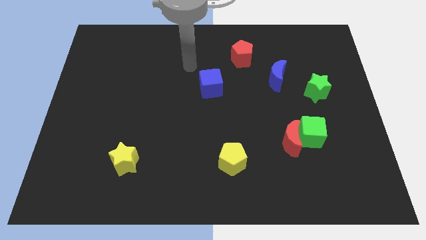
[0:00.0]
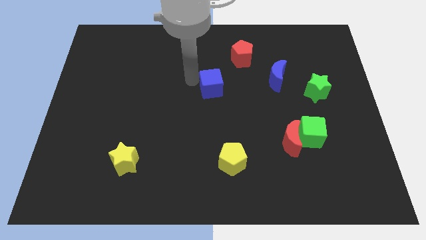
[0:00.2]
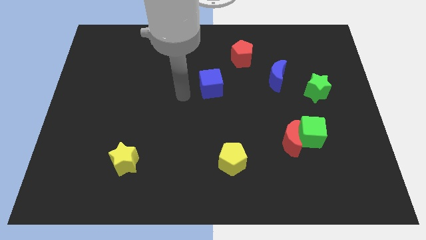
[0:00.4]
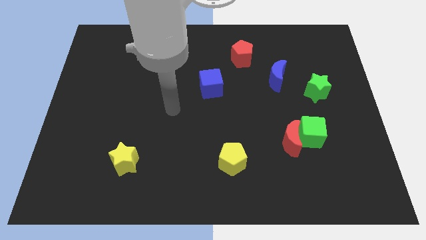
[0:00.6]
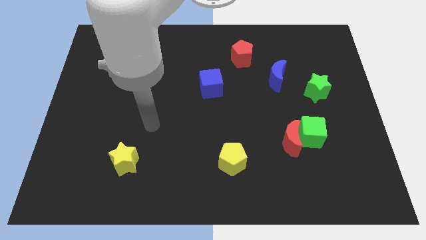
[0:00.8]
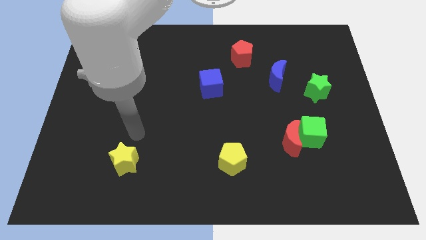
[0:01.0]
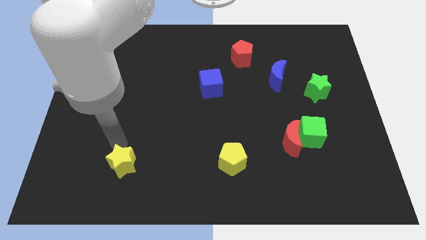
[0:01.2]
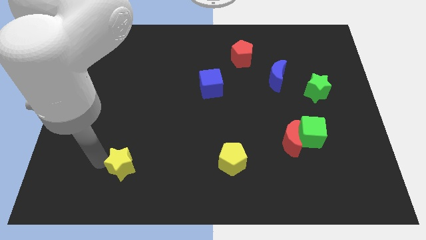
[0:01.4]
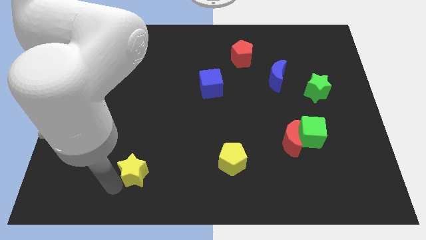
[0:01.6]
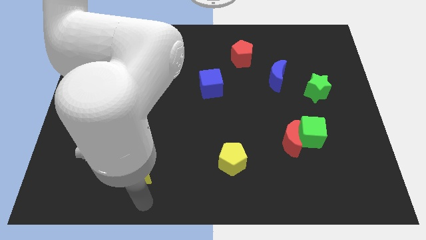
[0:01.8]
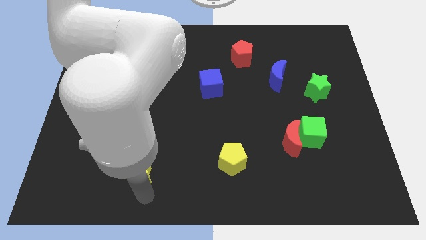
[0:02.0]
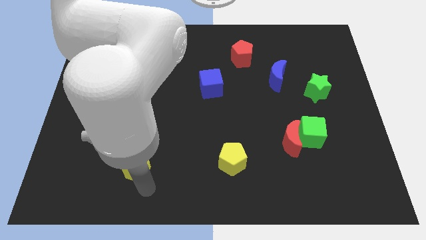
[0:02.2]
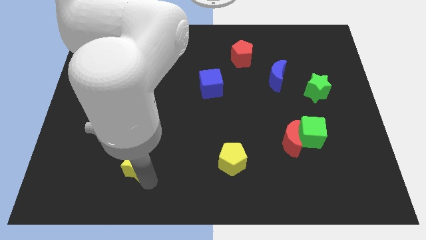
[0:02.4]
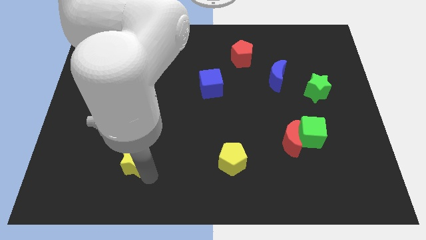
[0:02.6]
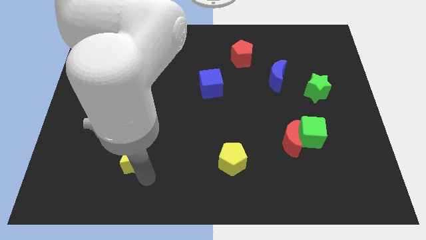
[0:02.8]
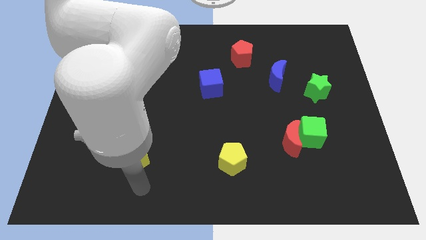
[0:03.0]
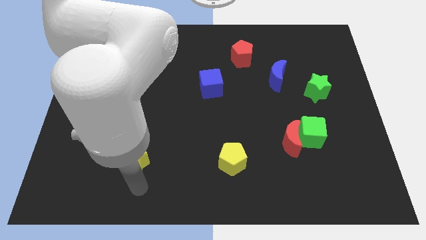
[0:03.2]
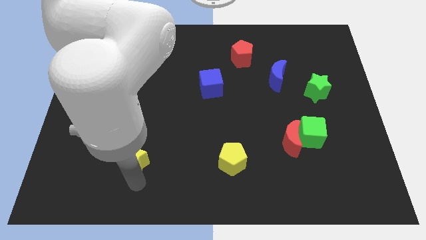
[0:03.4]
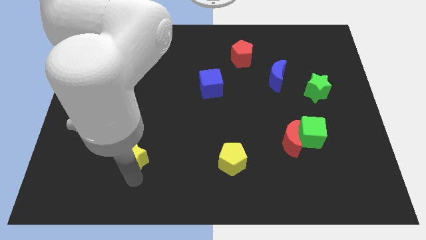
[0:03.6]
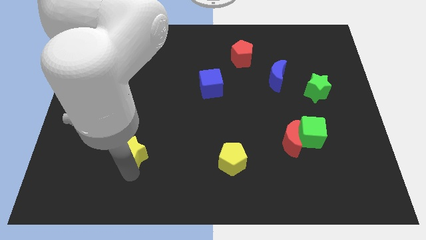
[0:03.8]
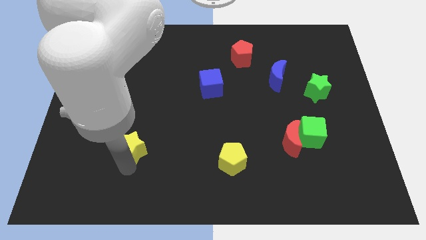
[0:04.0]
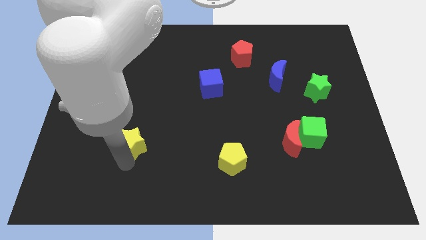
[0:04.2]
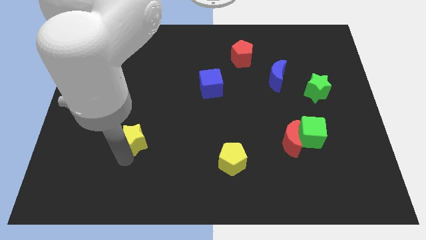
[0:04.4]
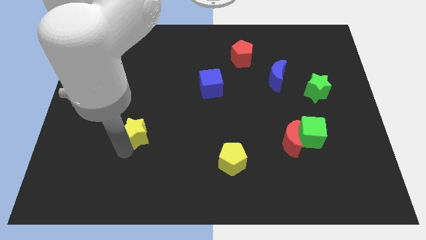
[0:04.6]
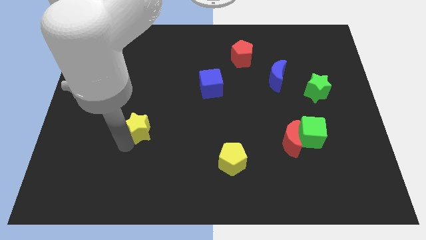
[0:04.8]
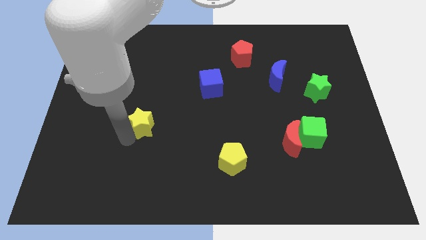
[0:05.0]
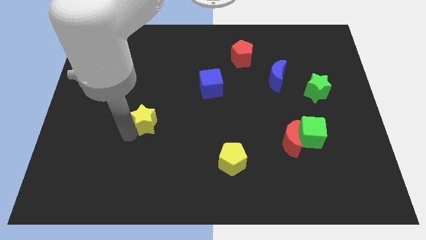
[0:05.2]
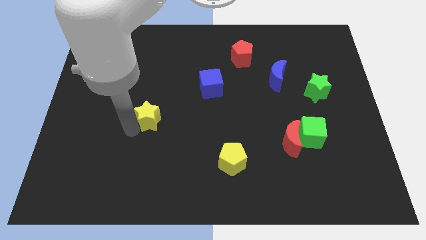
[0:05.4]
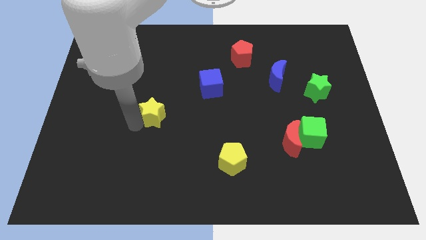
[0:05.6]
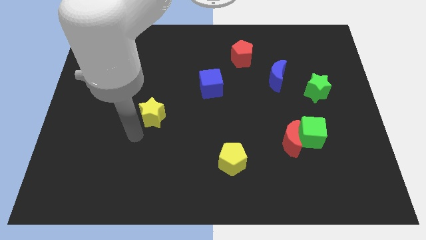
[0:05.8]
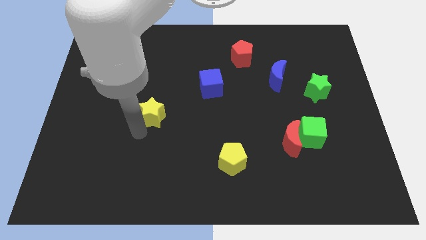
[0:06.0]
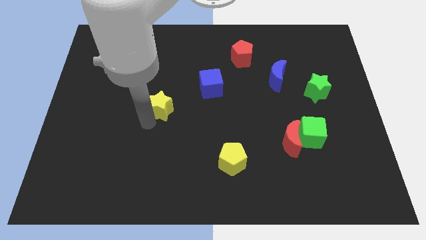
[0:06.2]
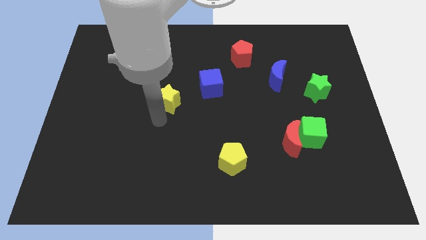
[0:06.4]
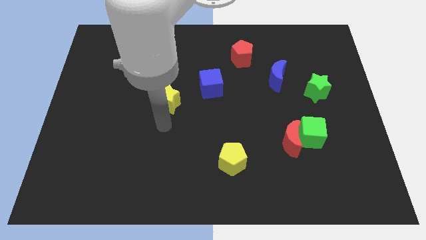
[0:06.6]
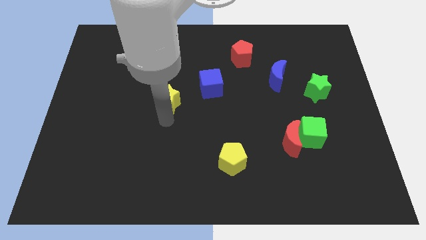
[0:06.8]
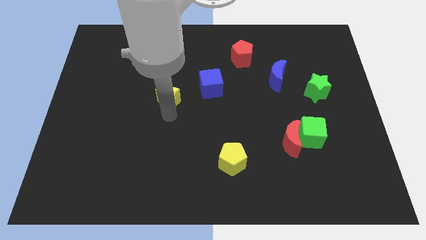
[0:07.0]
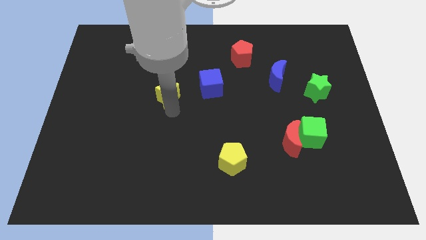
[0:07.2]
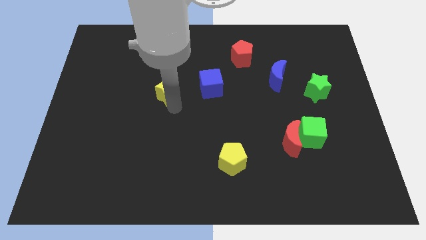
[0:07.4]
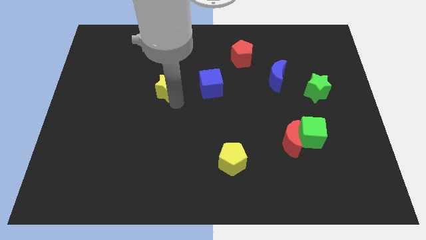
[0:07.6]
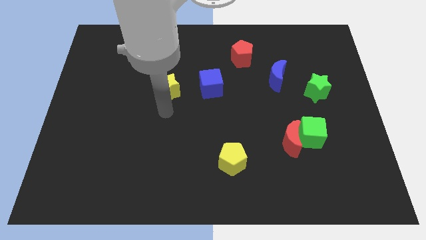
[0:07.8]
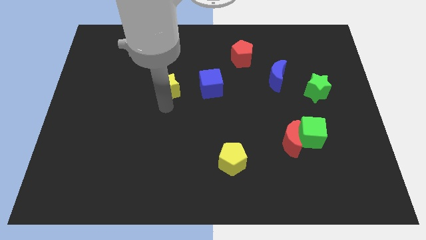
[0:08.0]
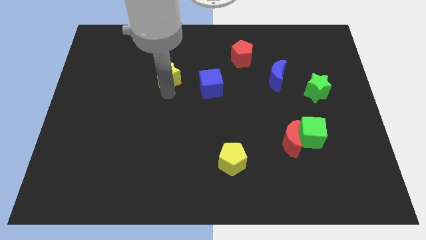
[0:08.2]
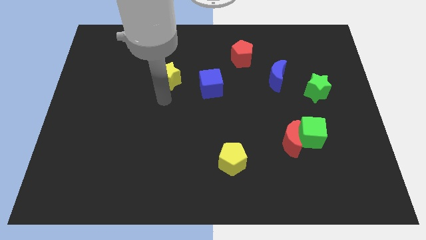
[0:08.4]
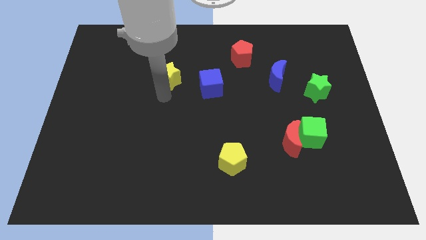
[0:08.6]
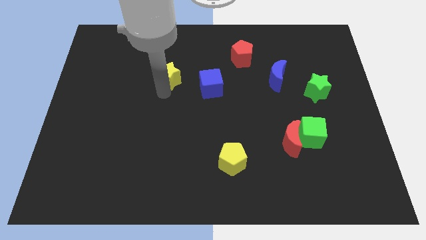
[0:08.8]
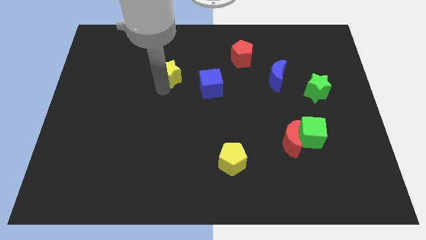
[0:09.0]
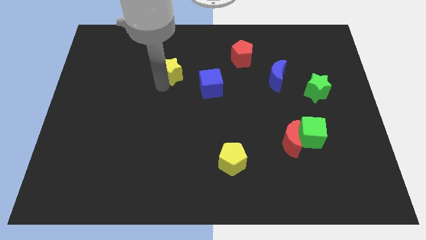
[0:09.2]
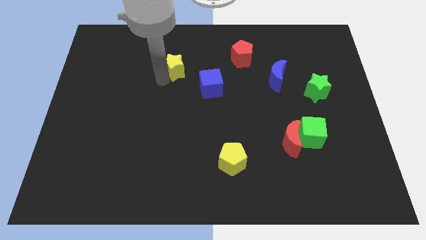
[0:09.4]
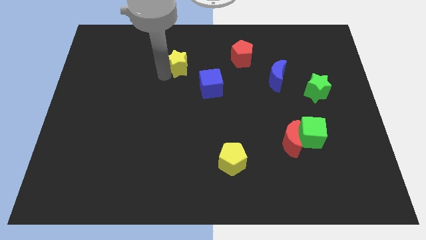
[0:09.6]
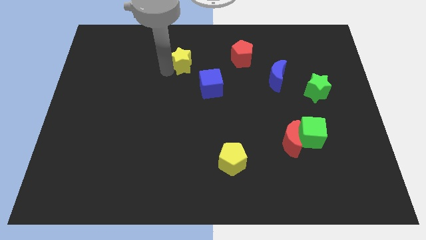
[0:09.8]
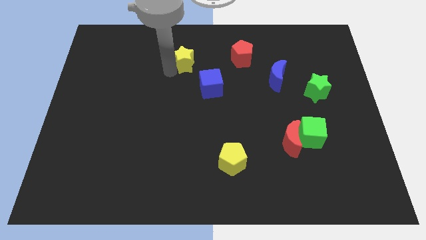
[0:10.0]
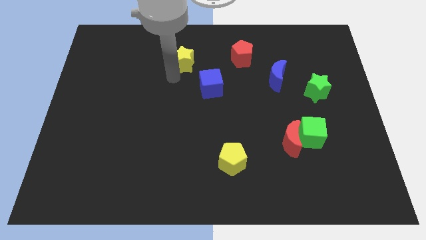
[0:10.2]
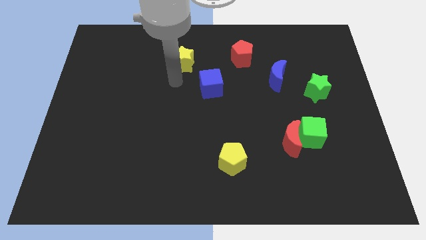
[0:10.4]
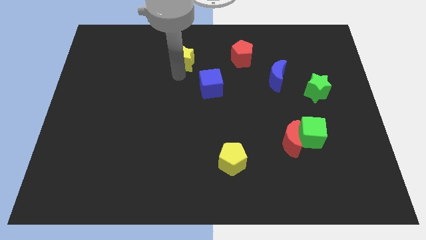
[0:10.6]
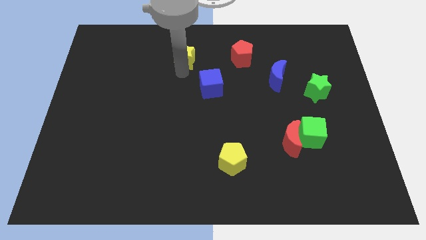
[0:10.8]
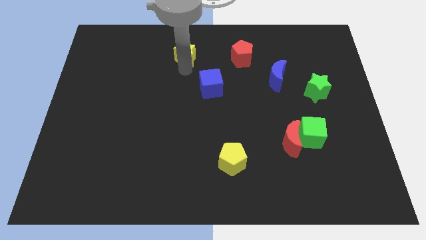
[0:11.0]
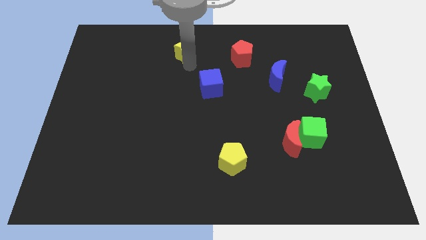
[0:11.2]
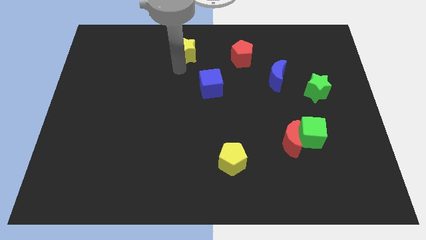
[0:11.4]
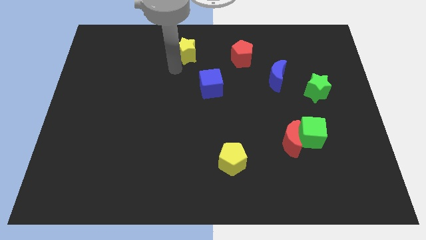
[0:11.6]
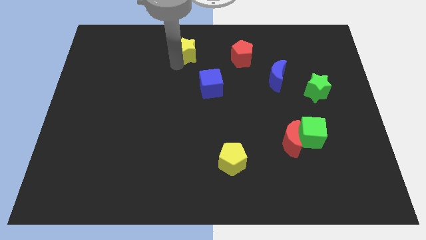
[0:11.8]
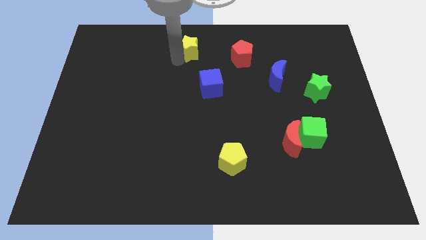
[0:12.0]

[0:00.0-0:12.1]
put the yellow star to the towards your base

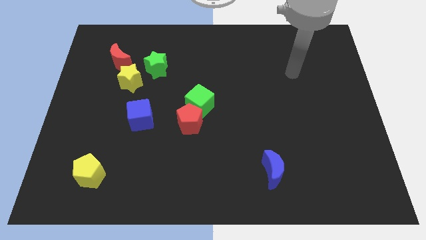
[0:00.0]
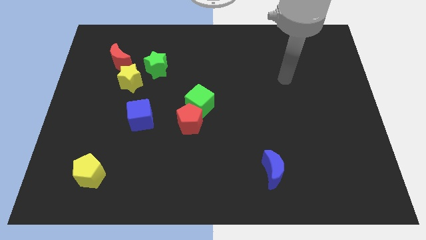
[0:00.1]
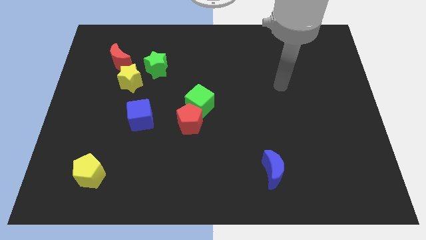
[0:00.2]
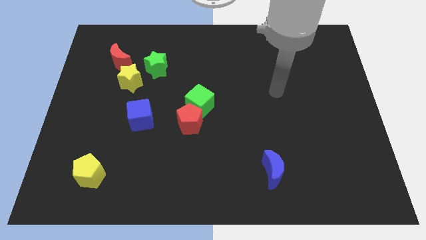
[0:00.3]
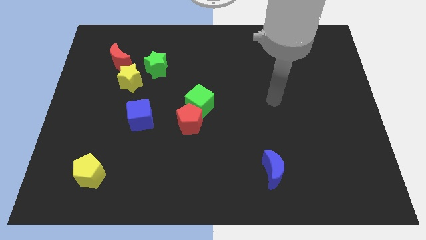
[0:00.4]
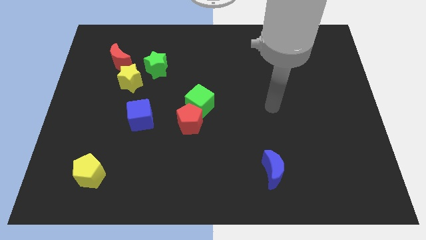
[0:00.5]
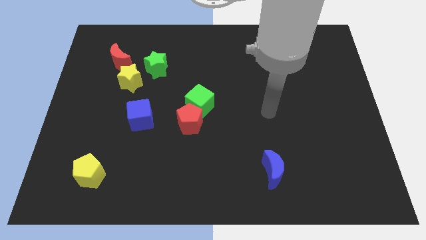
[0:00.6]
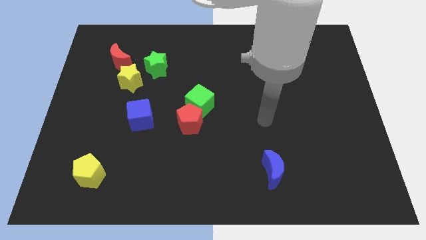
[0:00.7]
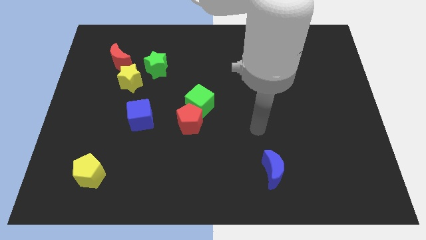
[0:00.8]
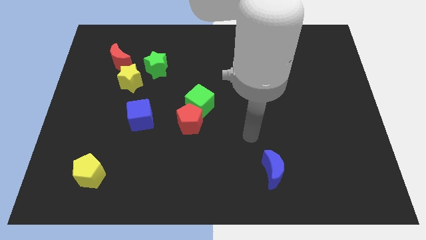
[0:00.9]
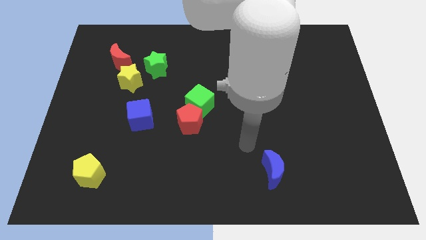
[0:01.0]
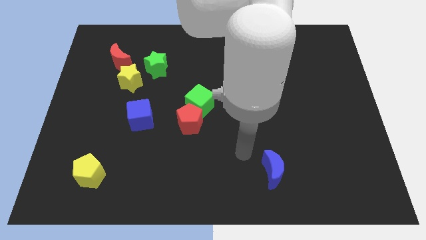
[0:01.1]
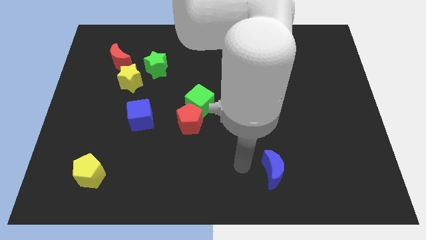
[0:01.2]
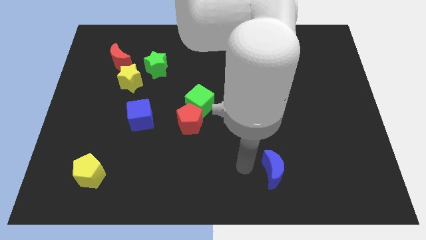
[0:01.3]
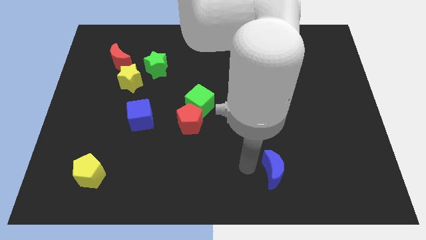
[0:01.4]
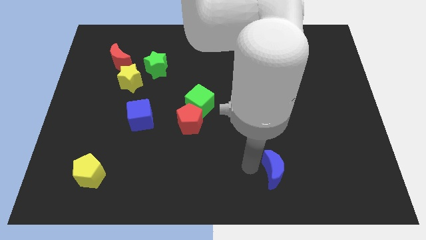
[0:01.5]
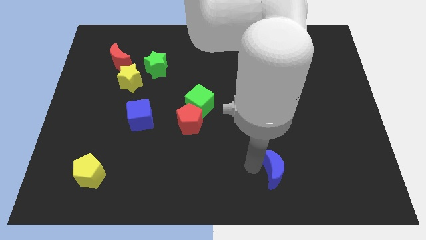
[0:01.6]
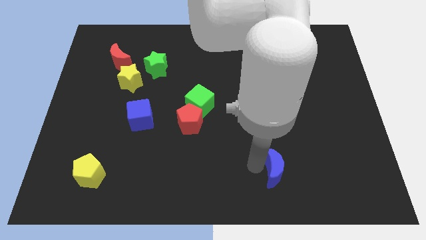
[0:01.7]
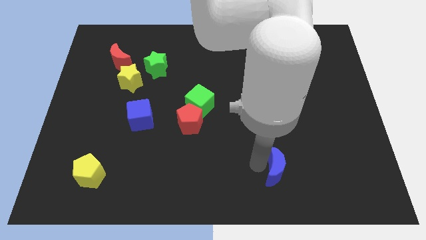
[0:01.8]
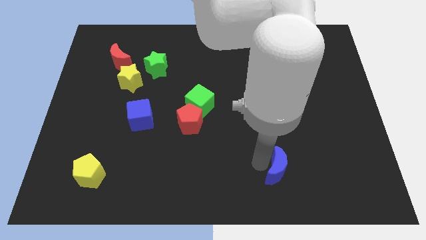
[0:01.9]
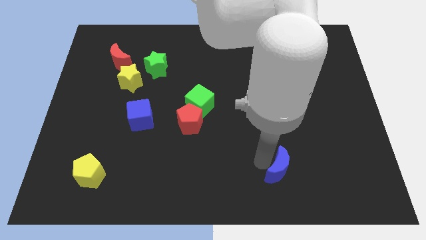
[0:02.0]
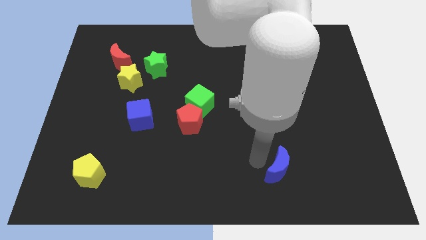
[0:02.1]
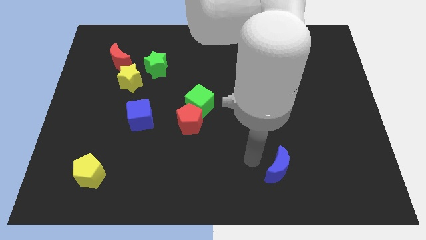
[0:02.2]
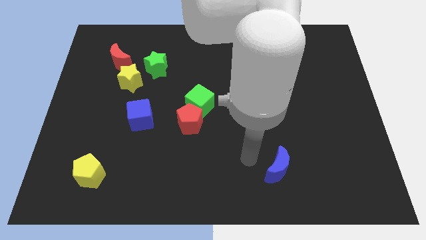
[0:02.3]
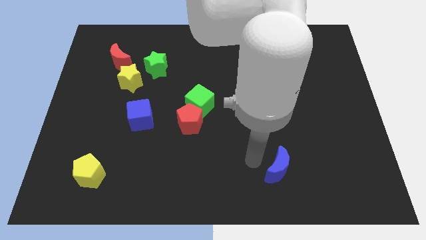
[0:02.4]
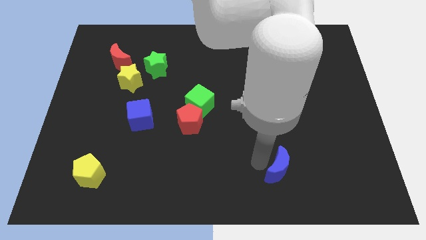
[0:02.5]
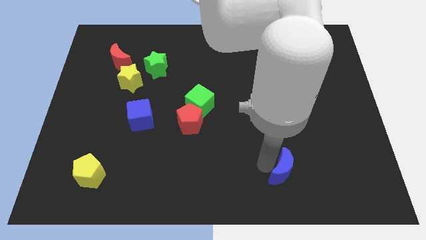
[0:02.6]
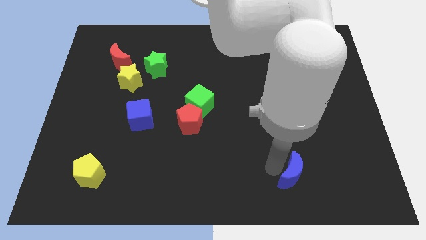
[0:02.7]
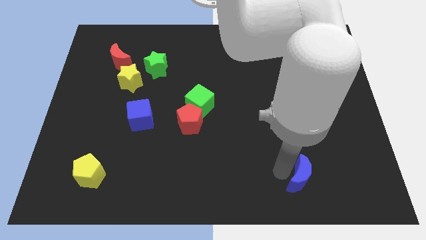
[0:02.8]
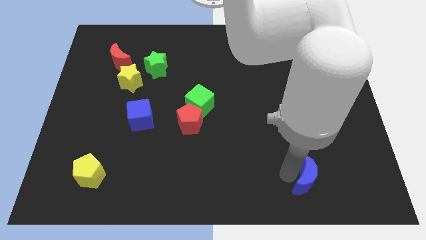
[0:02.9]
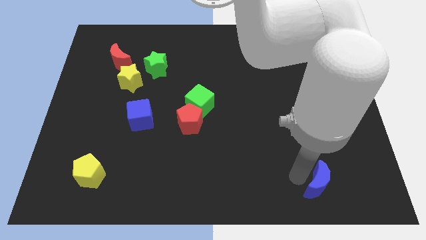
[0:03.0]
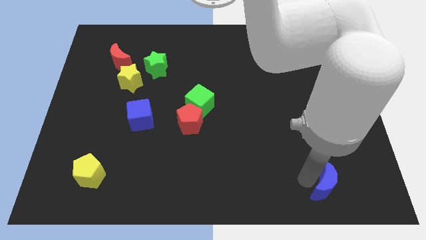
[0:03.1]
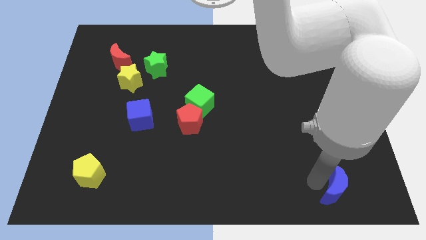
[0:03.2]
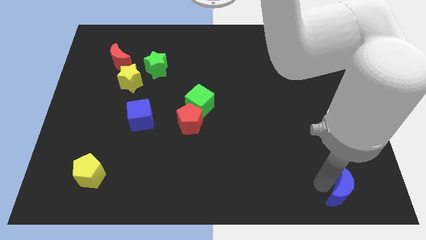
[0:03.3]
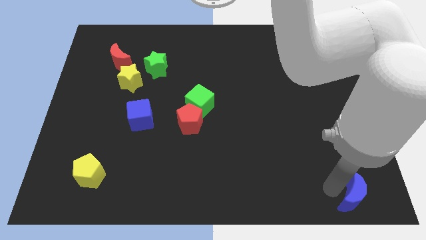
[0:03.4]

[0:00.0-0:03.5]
push the blue moon to the lower right corner
